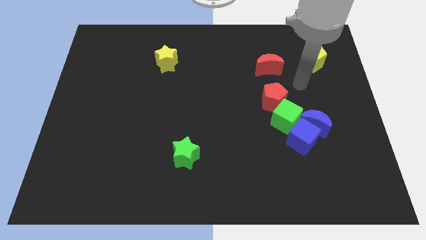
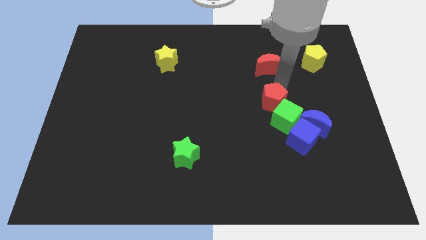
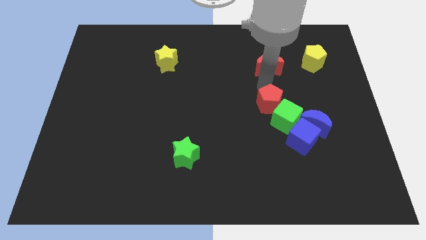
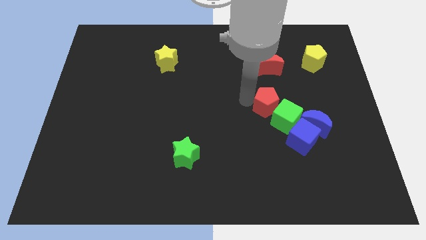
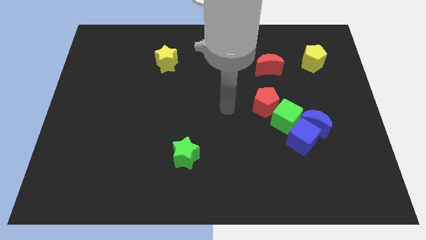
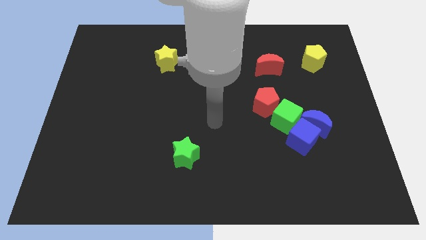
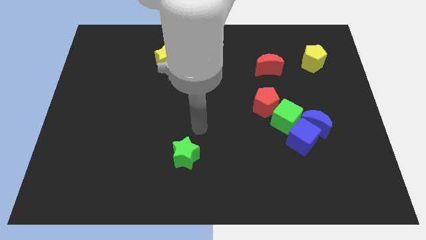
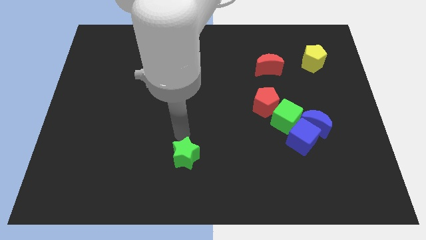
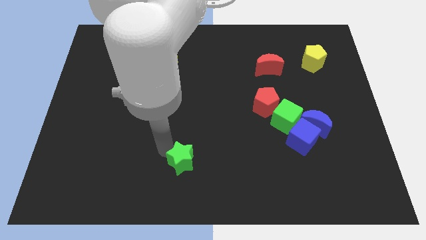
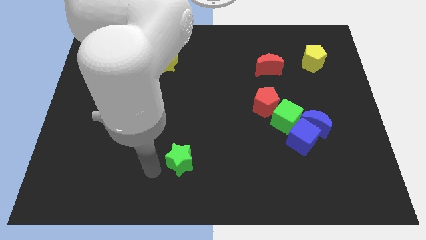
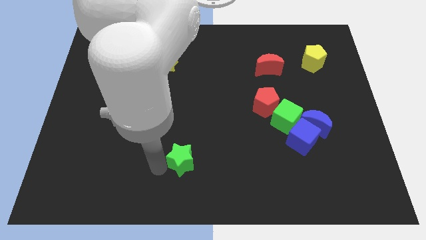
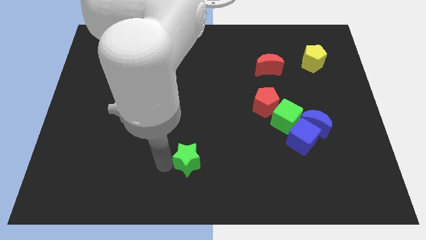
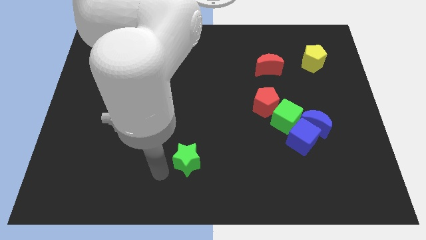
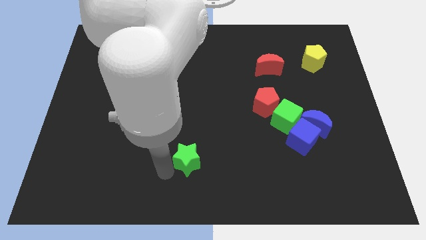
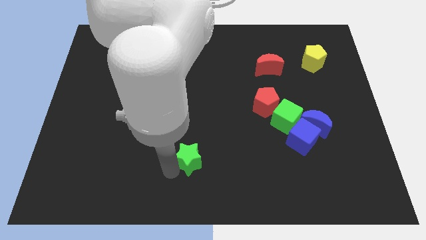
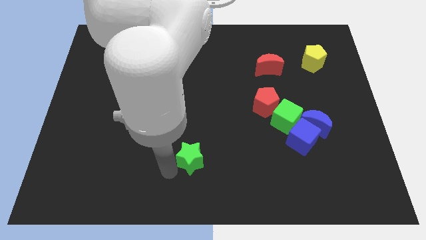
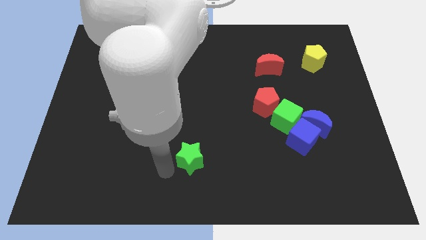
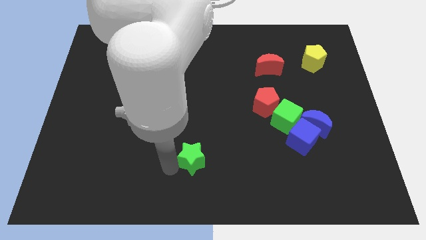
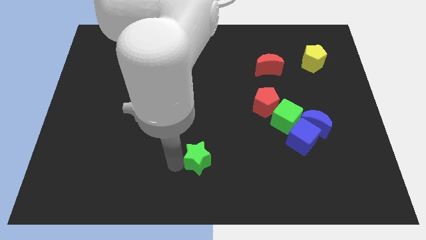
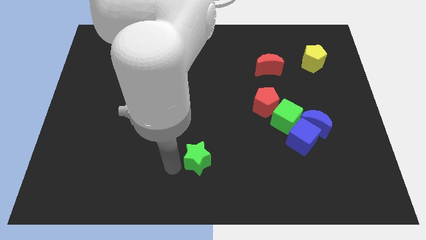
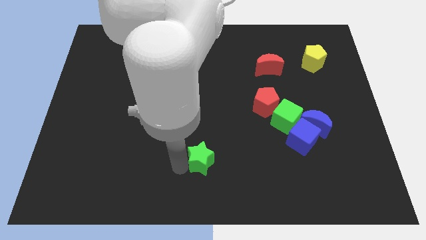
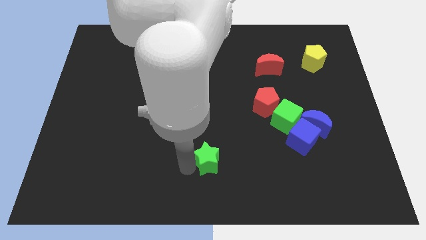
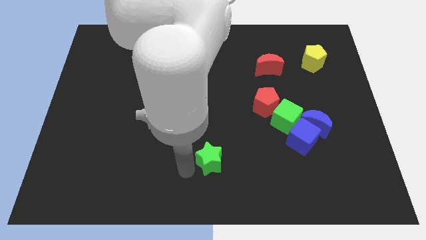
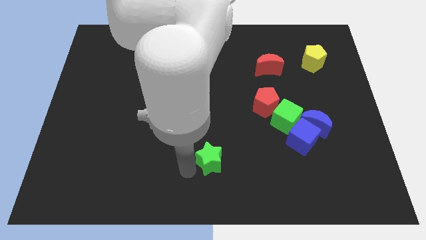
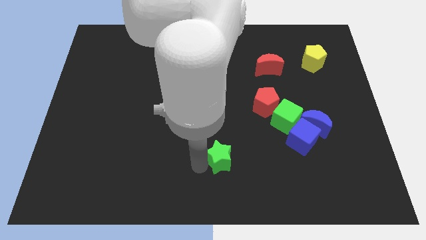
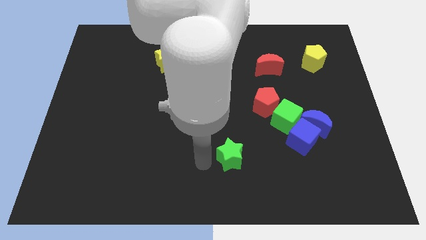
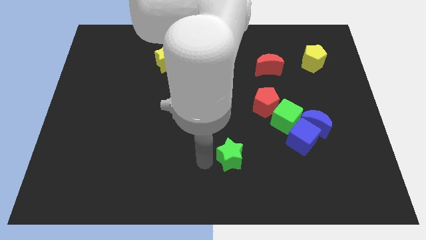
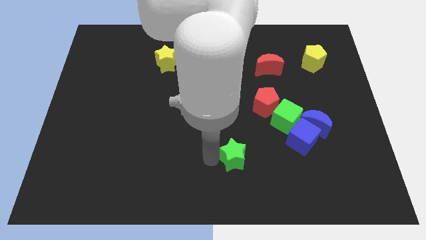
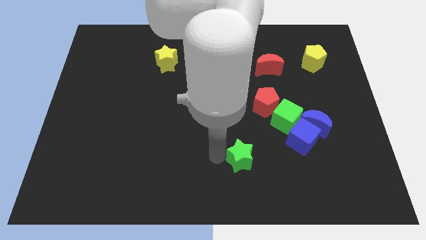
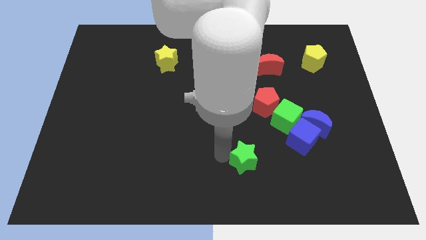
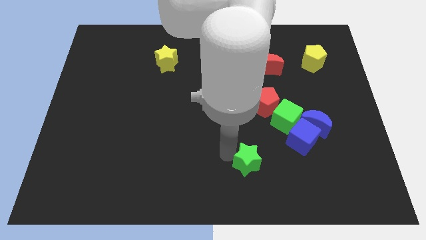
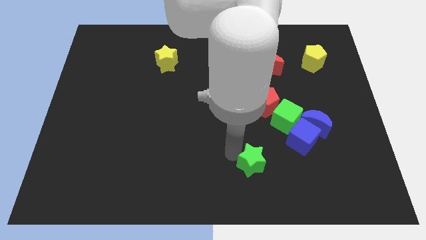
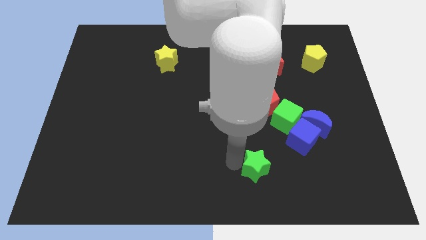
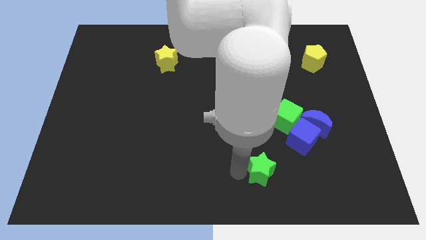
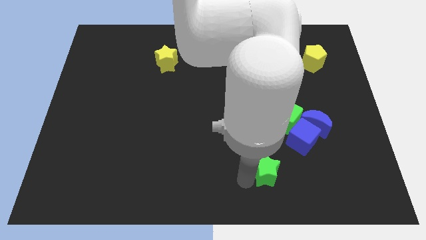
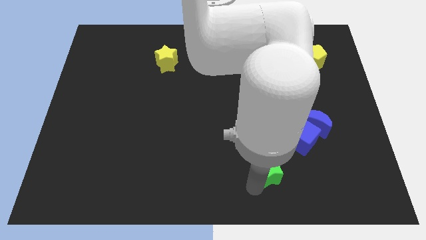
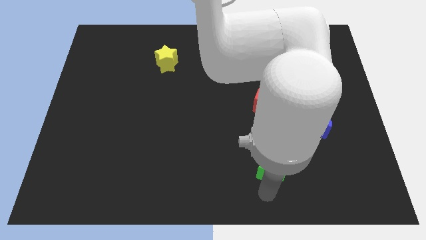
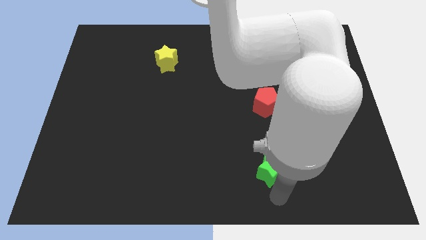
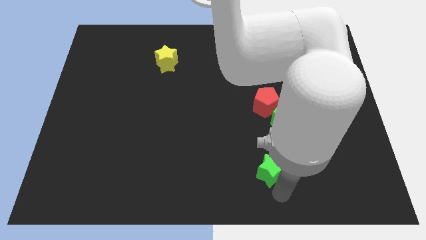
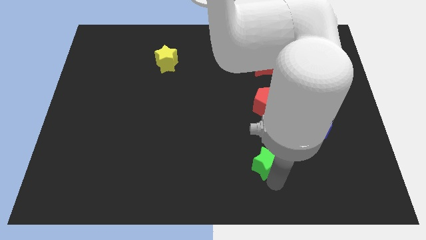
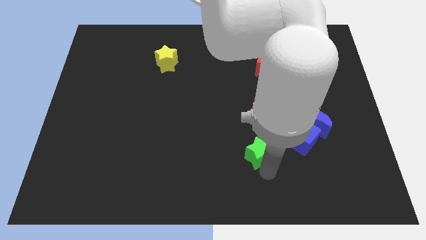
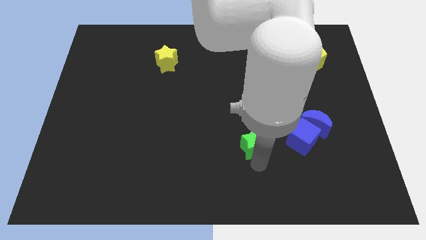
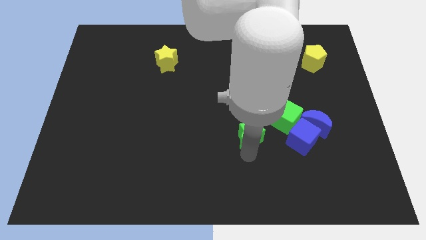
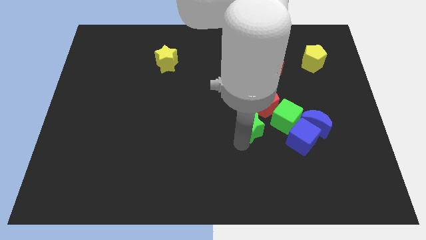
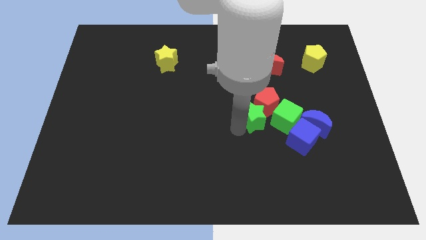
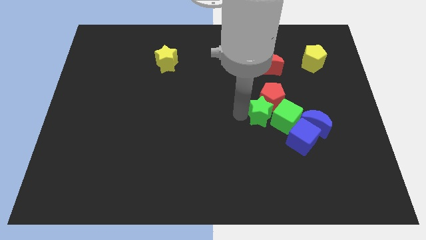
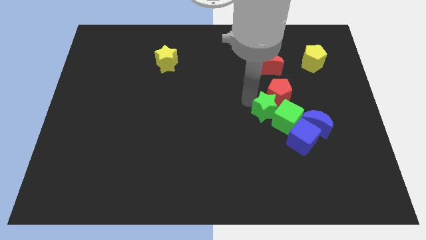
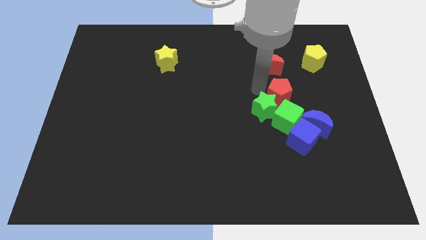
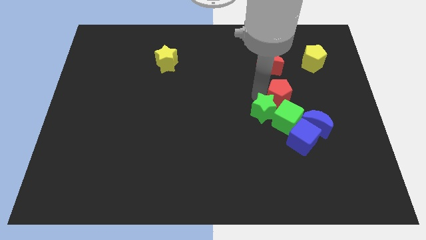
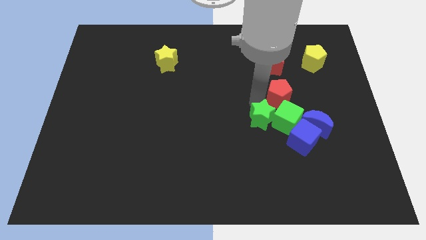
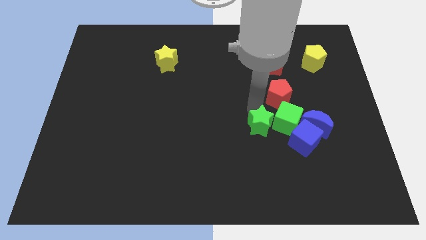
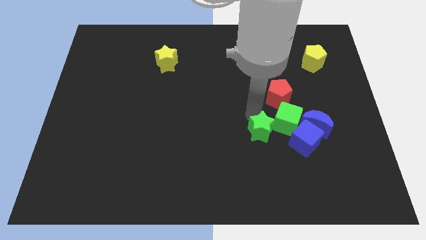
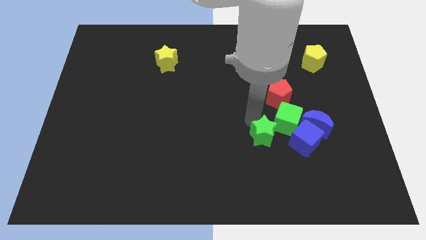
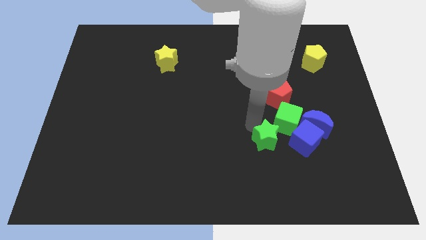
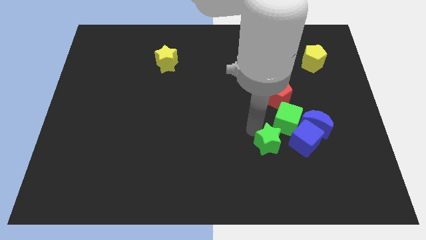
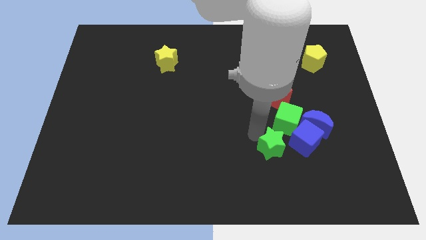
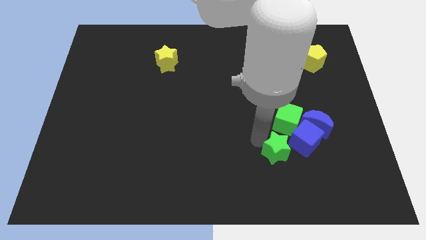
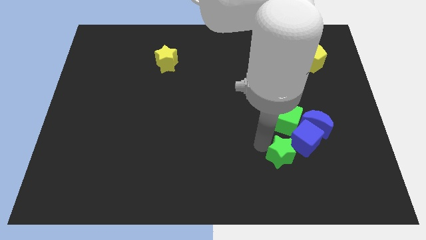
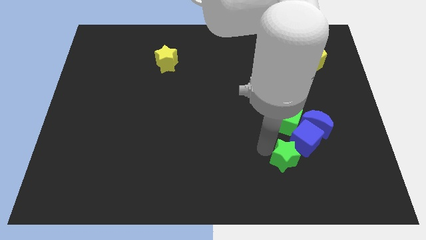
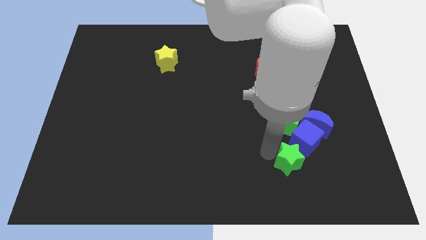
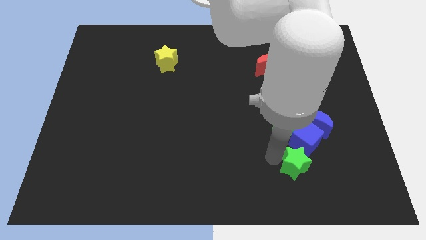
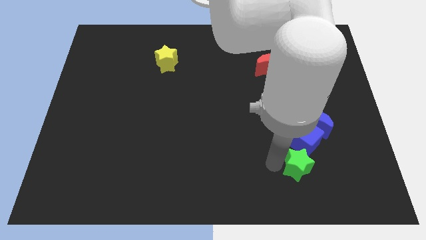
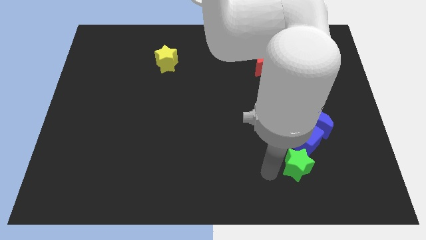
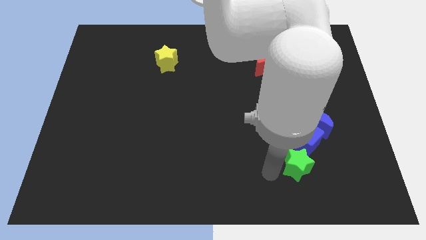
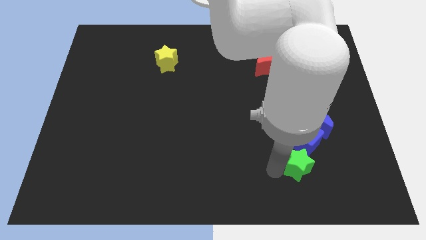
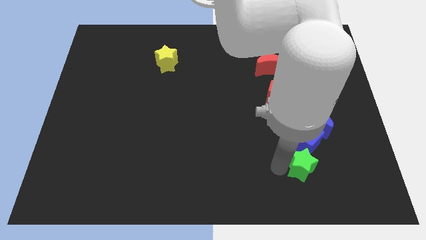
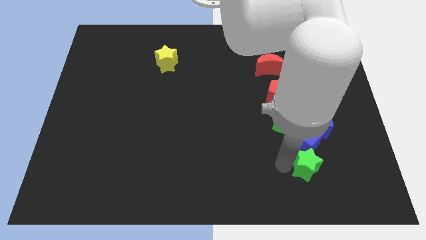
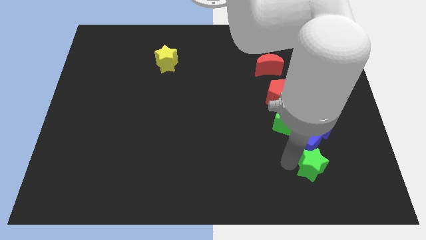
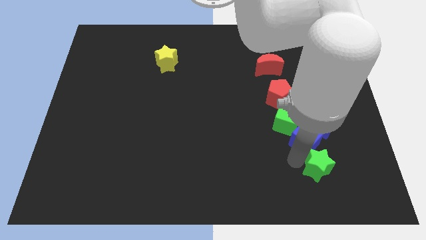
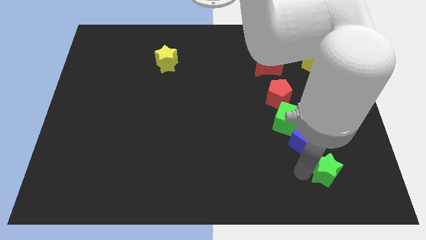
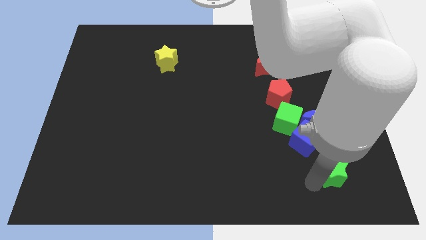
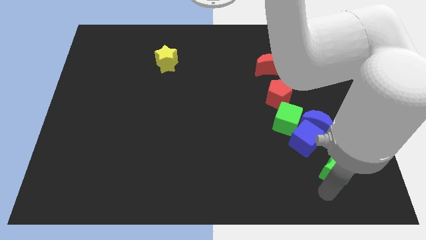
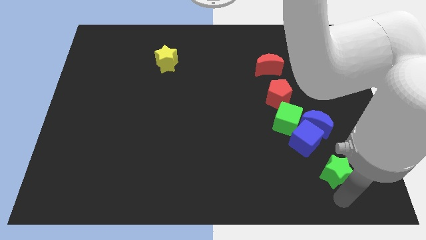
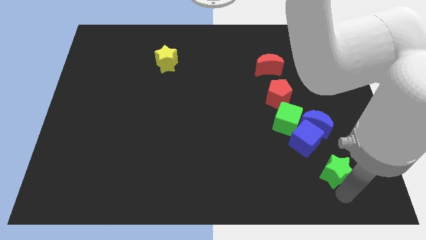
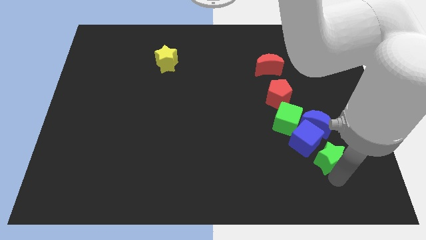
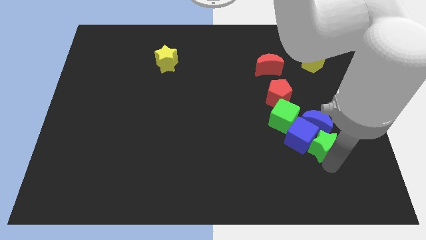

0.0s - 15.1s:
move the green star next to the blue moon

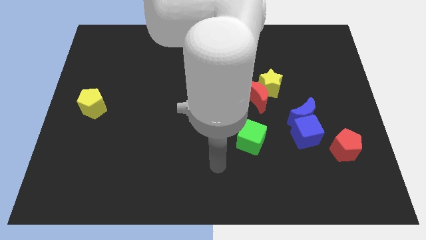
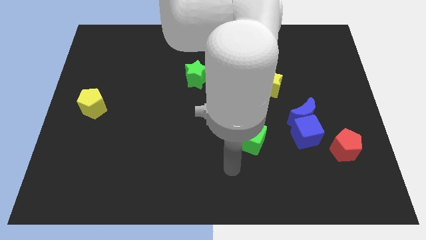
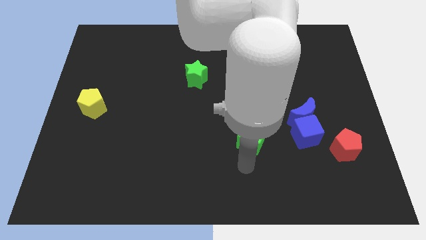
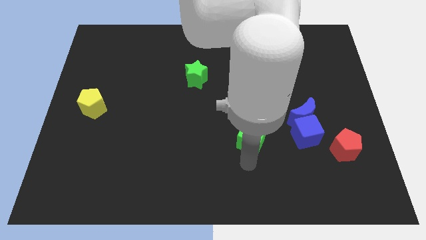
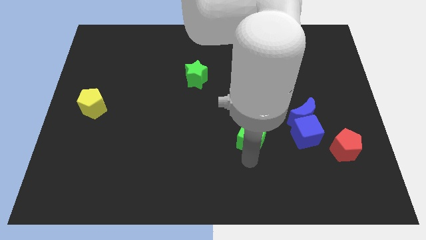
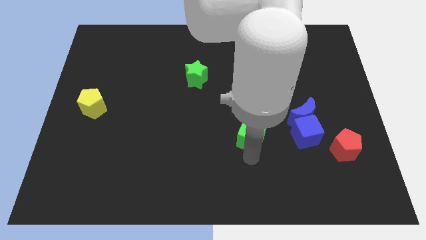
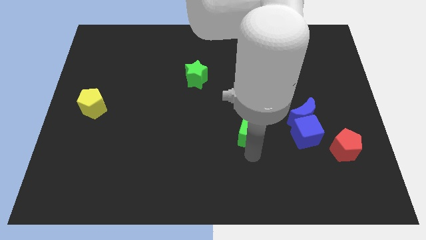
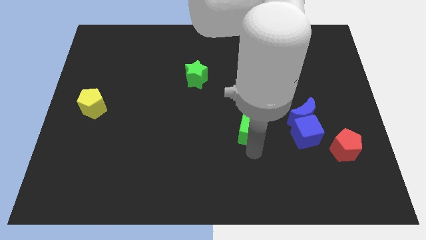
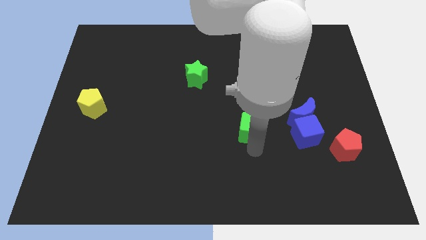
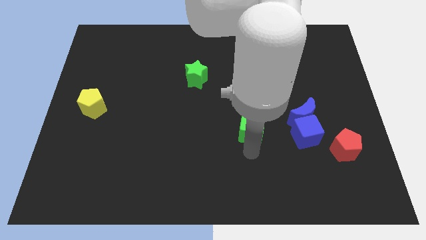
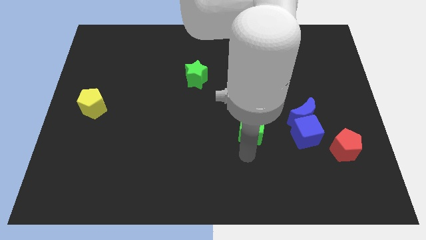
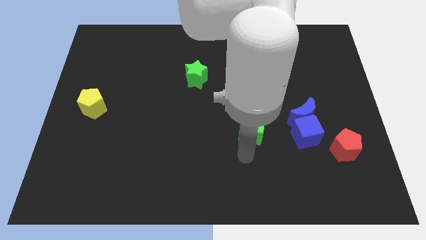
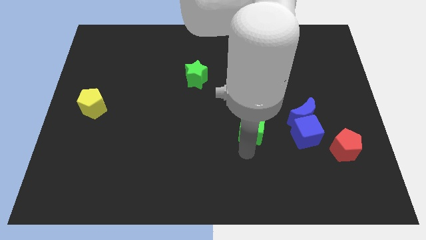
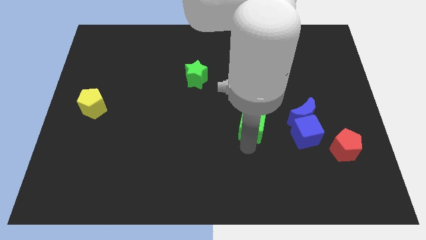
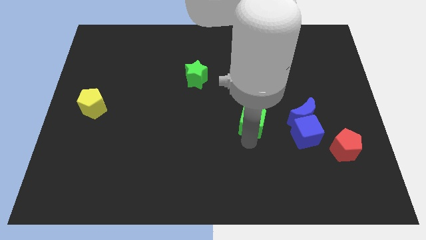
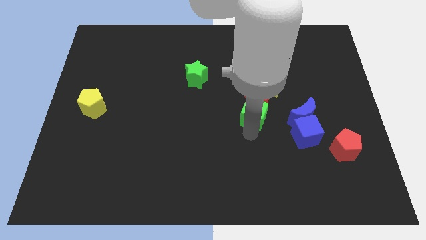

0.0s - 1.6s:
push the green cube towards the red moon
